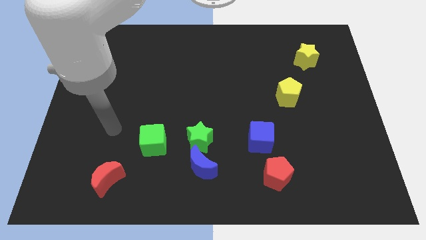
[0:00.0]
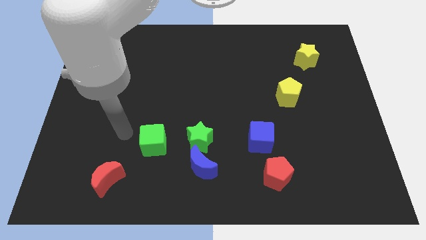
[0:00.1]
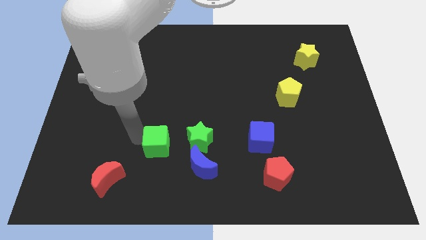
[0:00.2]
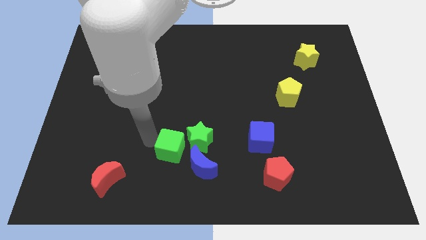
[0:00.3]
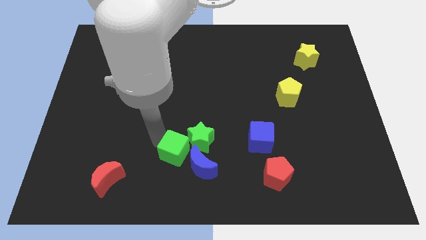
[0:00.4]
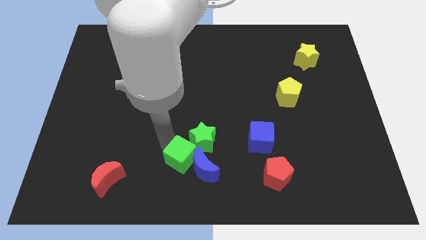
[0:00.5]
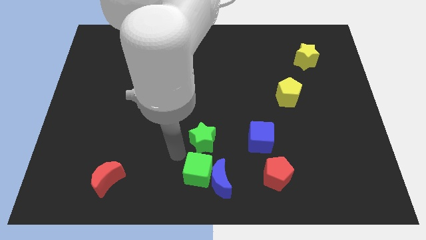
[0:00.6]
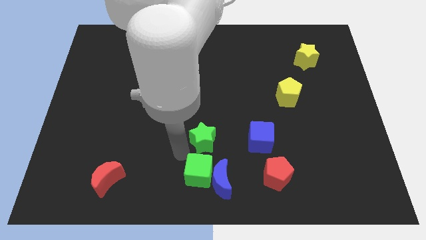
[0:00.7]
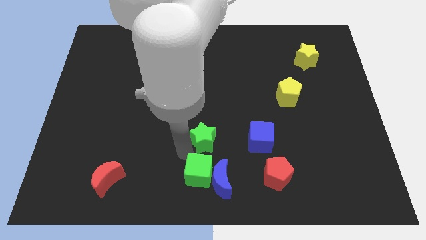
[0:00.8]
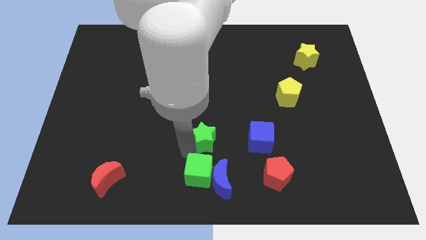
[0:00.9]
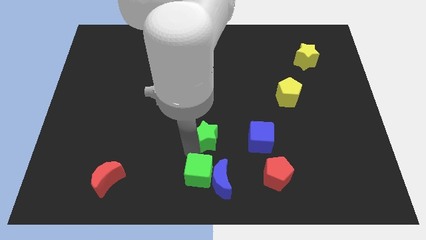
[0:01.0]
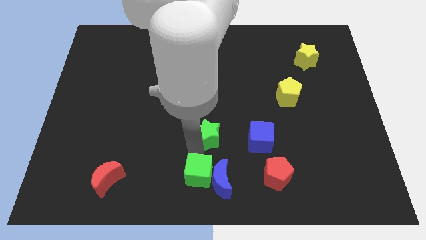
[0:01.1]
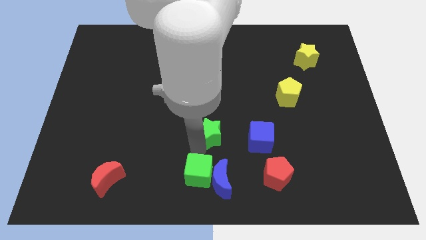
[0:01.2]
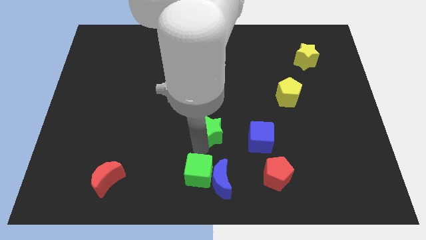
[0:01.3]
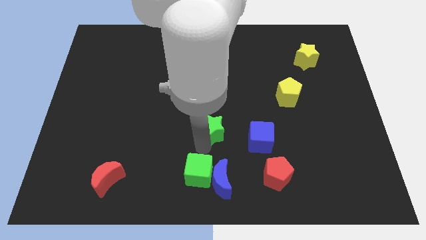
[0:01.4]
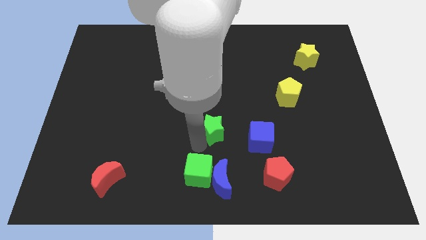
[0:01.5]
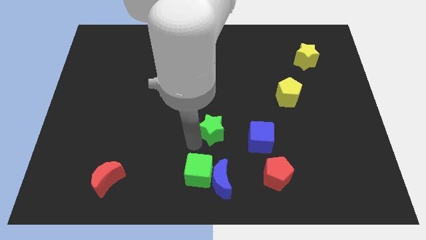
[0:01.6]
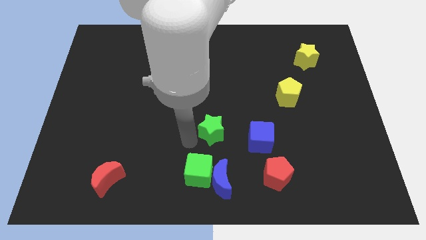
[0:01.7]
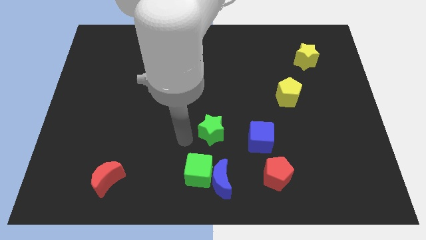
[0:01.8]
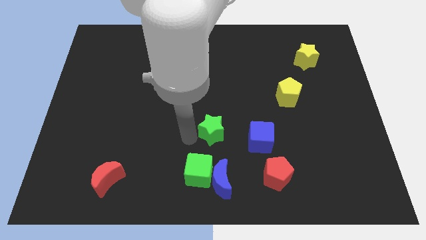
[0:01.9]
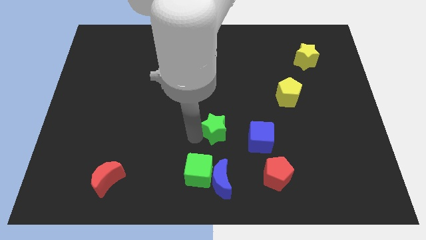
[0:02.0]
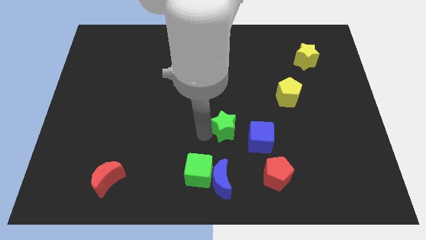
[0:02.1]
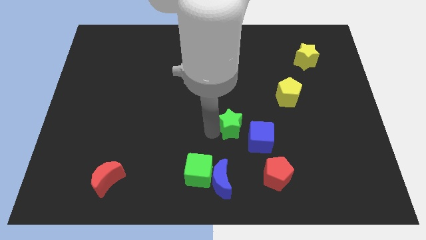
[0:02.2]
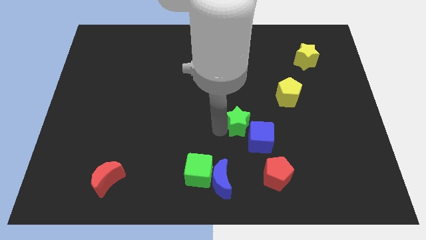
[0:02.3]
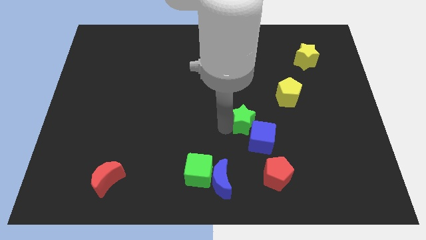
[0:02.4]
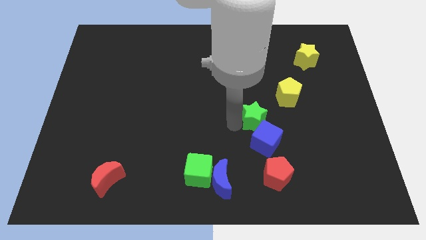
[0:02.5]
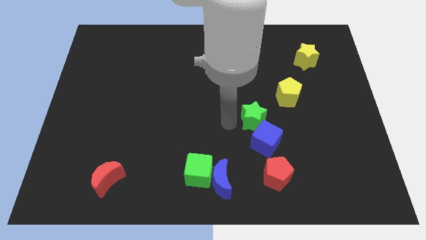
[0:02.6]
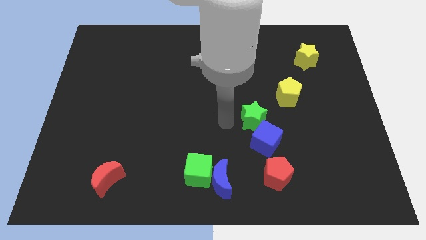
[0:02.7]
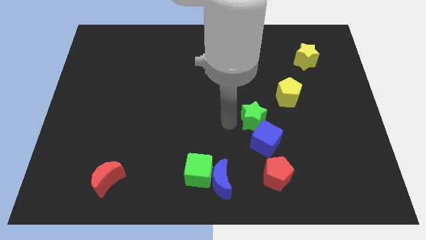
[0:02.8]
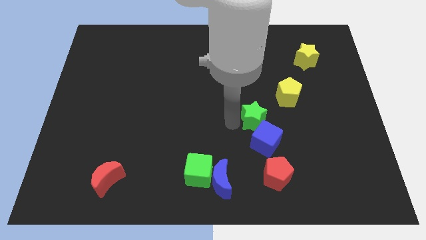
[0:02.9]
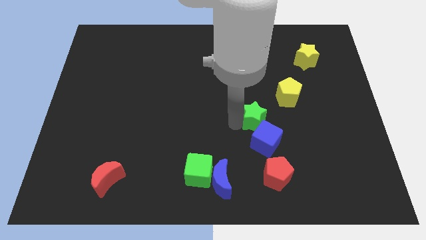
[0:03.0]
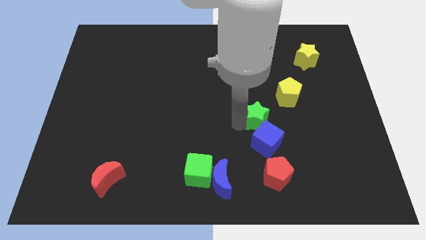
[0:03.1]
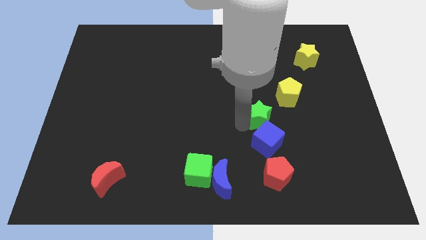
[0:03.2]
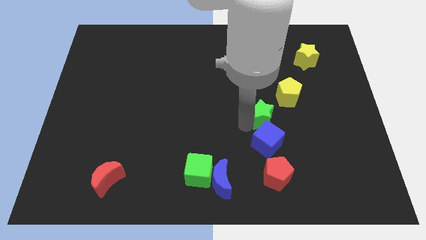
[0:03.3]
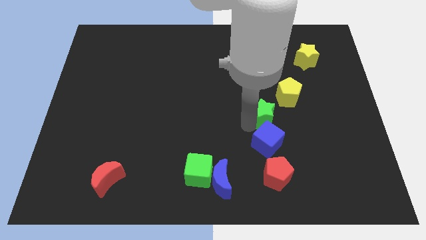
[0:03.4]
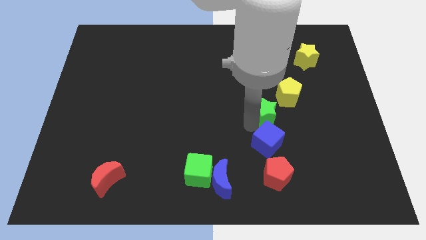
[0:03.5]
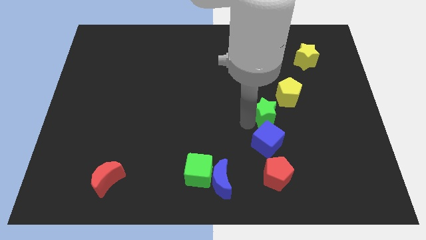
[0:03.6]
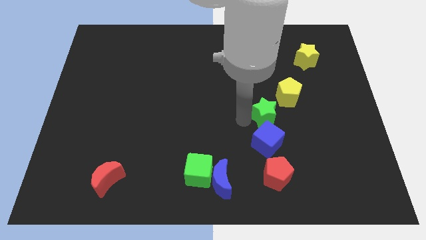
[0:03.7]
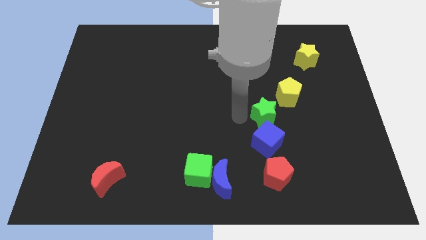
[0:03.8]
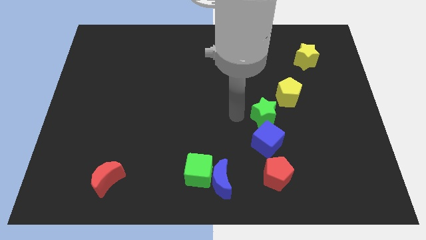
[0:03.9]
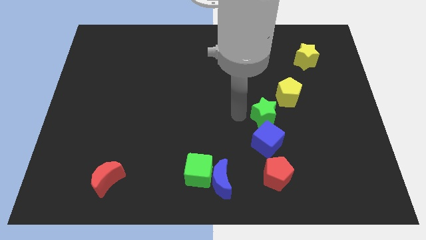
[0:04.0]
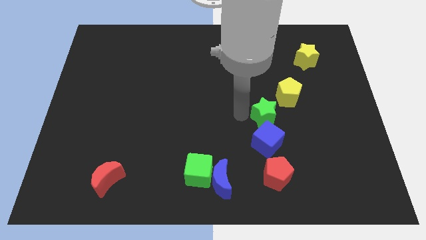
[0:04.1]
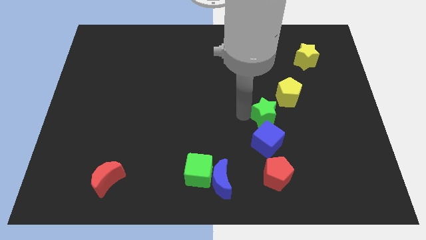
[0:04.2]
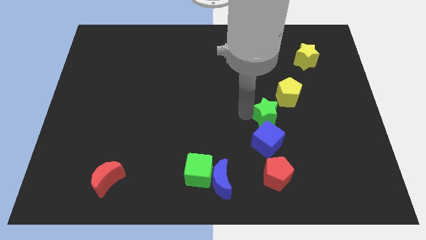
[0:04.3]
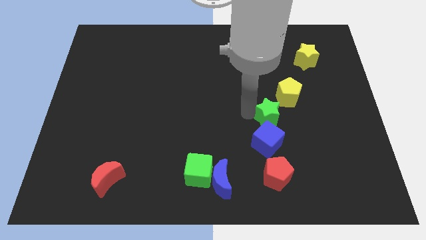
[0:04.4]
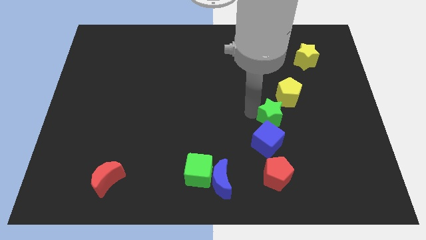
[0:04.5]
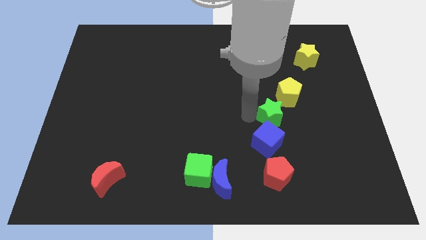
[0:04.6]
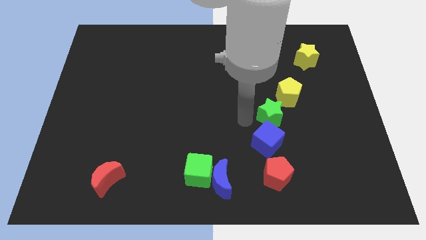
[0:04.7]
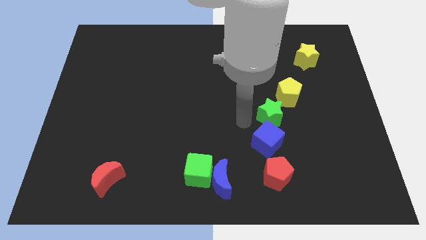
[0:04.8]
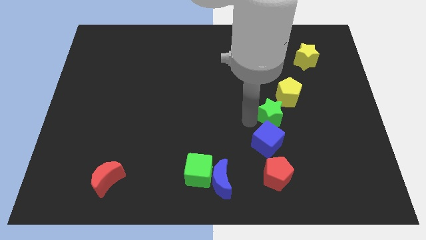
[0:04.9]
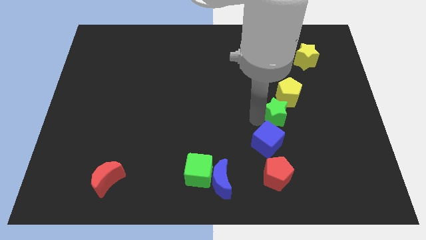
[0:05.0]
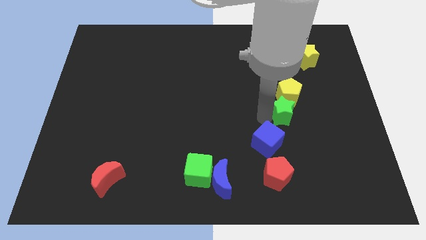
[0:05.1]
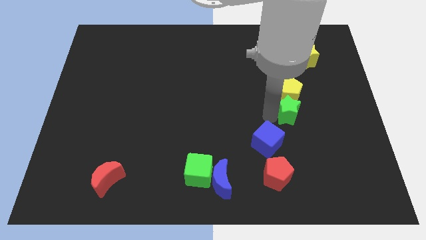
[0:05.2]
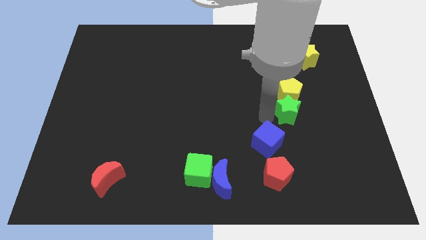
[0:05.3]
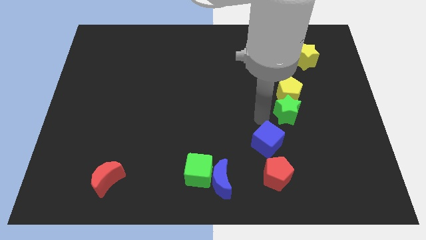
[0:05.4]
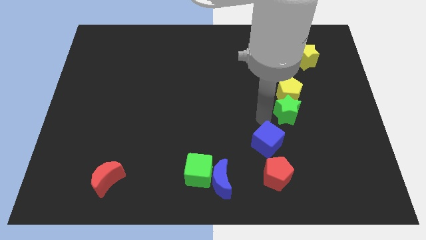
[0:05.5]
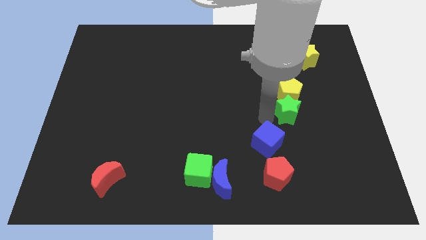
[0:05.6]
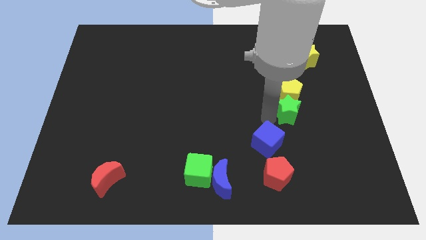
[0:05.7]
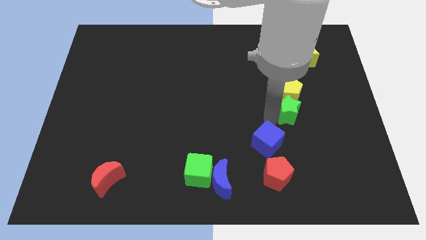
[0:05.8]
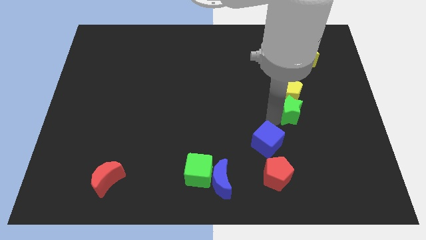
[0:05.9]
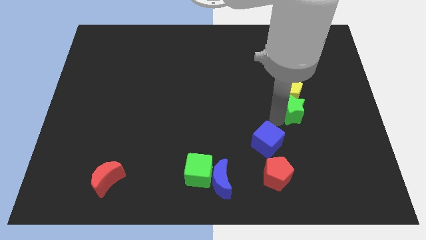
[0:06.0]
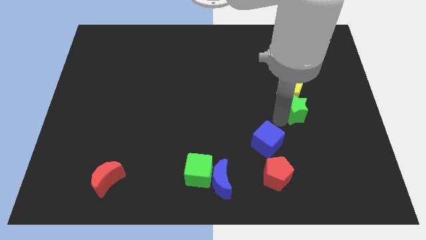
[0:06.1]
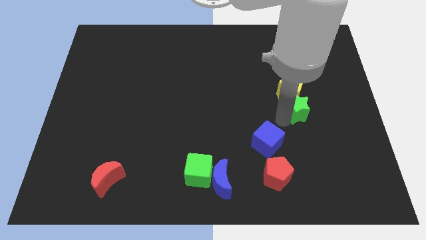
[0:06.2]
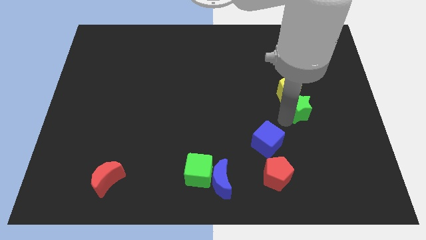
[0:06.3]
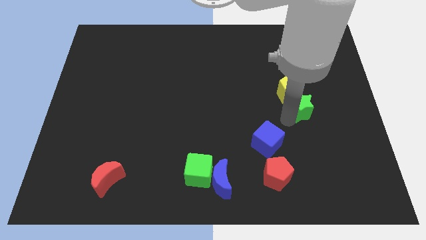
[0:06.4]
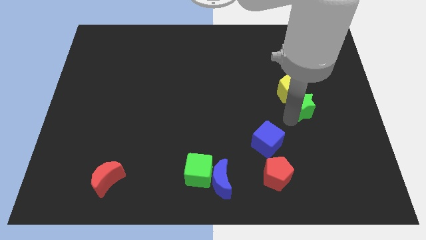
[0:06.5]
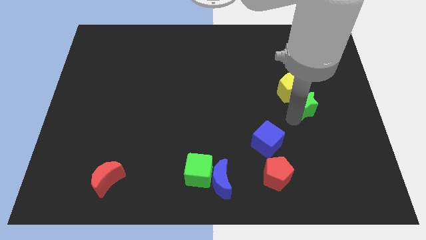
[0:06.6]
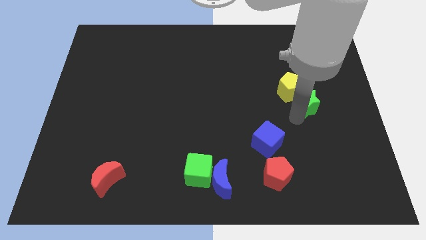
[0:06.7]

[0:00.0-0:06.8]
put the green star to the bottom of the yellow star
